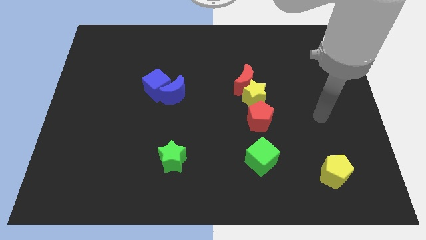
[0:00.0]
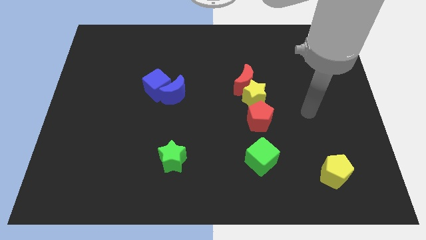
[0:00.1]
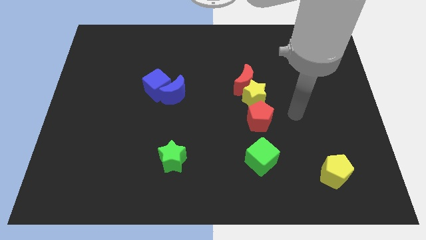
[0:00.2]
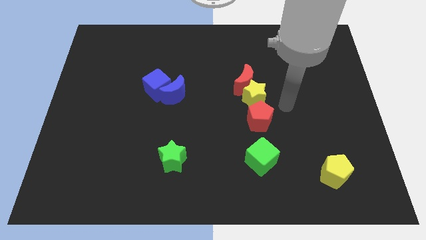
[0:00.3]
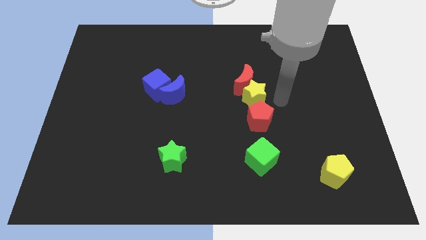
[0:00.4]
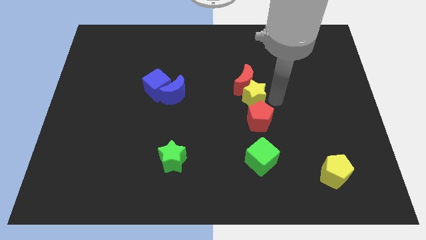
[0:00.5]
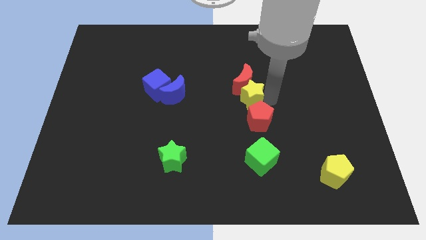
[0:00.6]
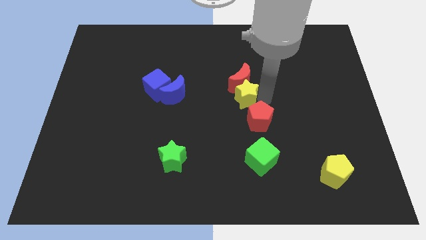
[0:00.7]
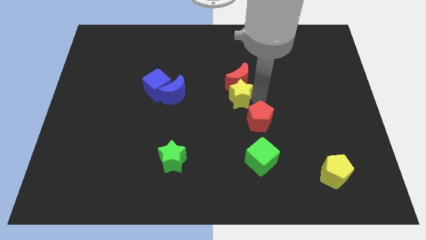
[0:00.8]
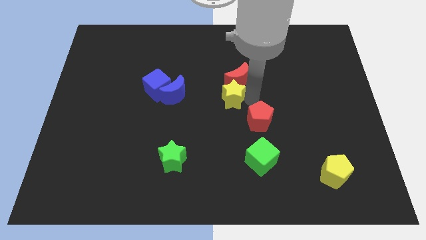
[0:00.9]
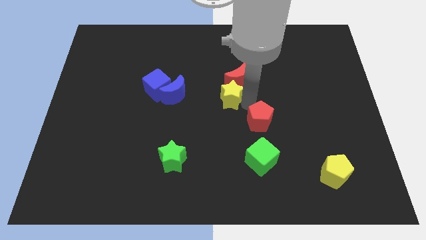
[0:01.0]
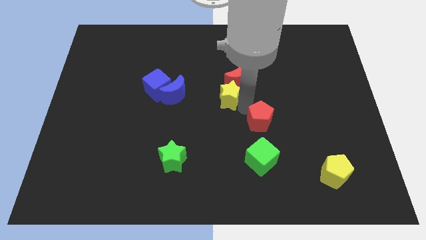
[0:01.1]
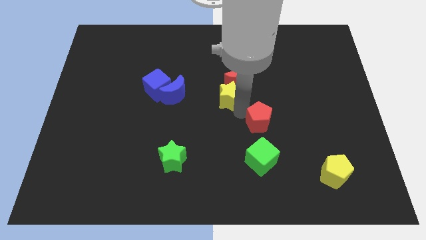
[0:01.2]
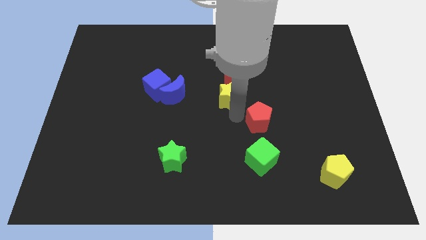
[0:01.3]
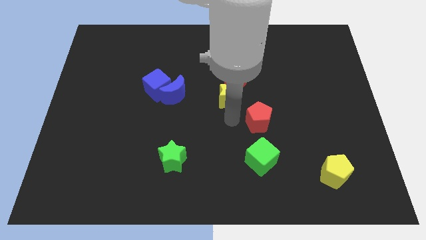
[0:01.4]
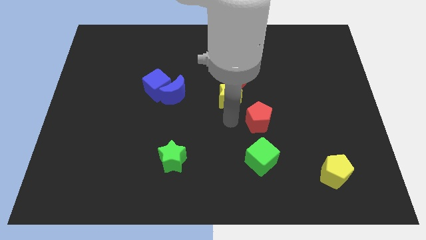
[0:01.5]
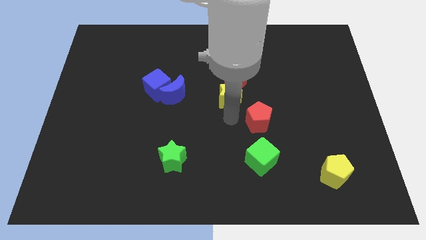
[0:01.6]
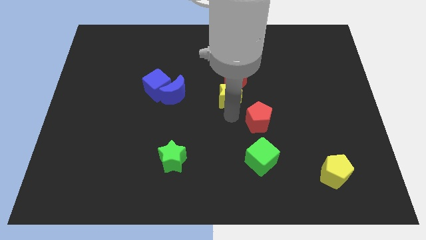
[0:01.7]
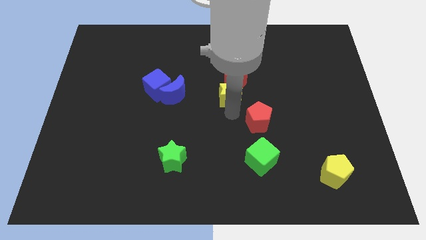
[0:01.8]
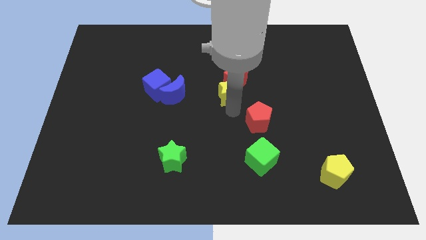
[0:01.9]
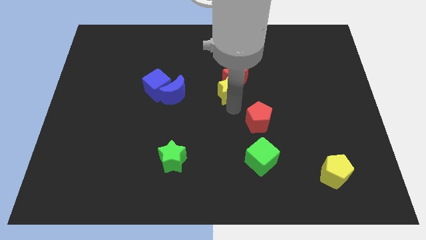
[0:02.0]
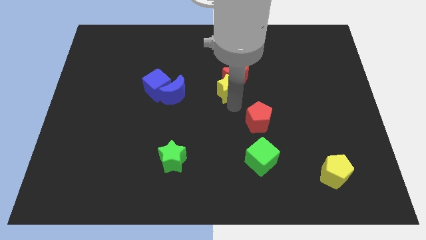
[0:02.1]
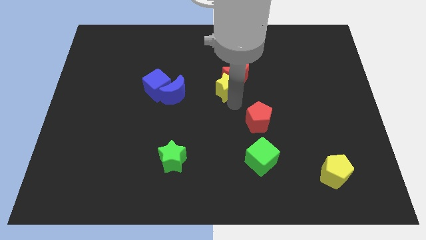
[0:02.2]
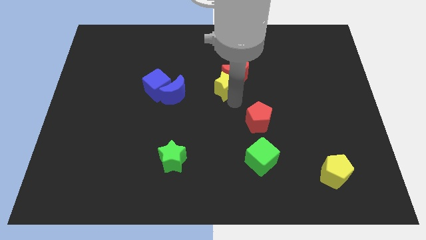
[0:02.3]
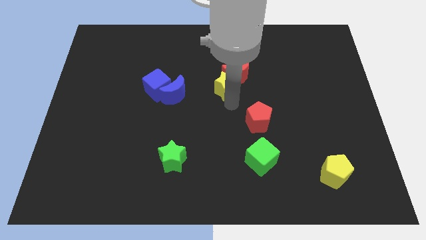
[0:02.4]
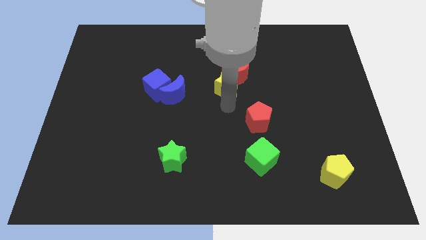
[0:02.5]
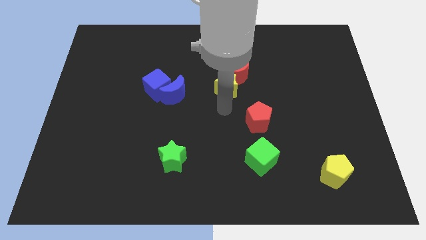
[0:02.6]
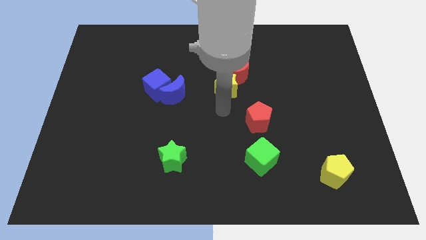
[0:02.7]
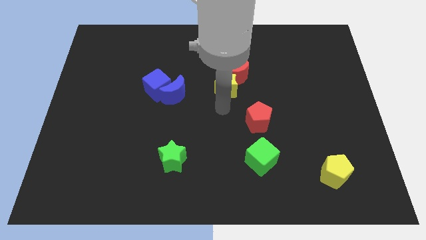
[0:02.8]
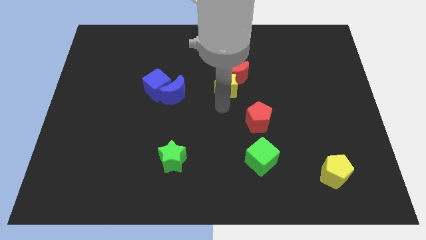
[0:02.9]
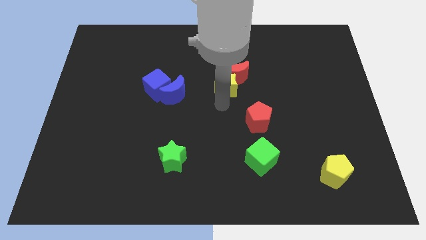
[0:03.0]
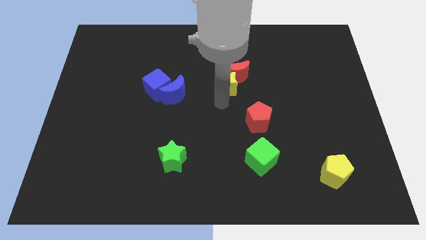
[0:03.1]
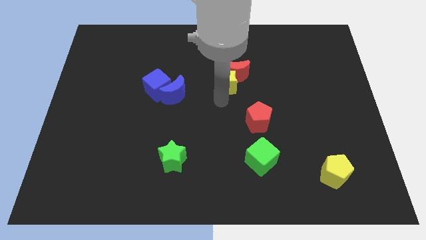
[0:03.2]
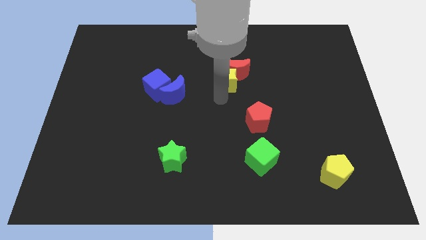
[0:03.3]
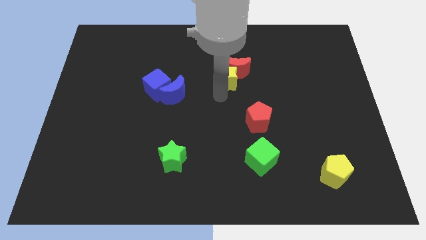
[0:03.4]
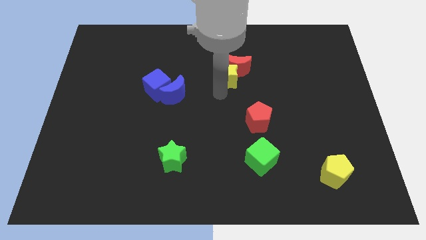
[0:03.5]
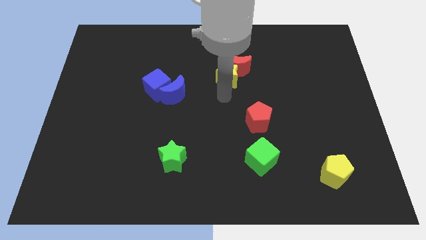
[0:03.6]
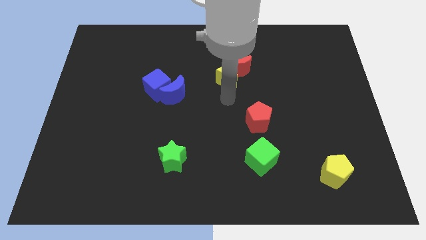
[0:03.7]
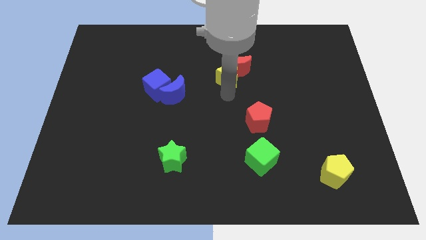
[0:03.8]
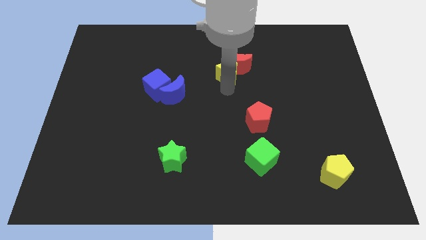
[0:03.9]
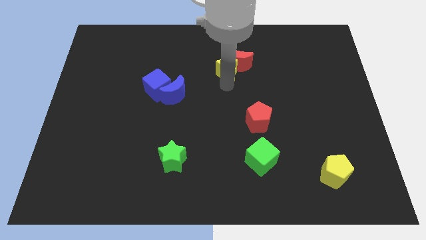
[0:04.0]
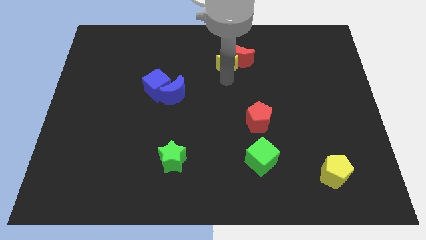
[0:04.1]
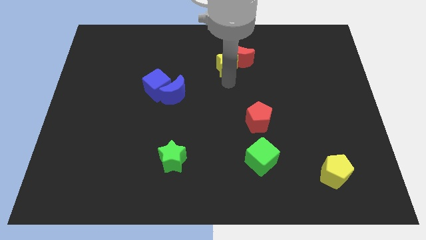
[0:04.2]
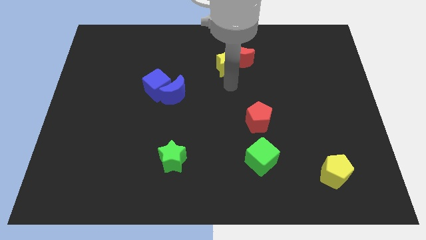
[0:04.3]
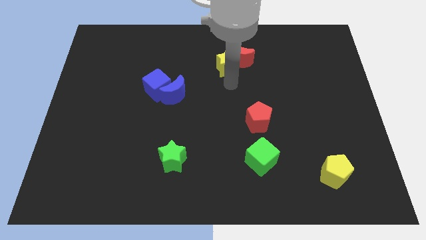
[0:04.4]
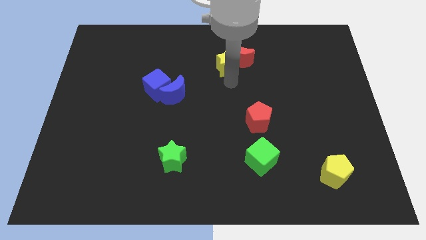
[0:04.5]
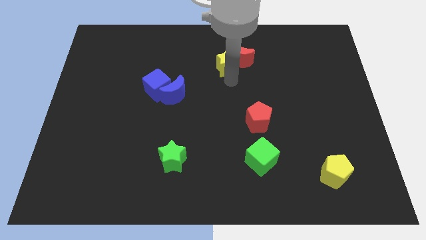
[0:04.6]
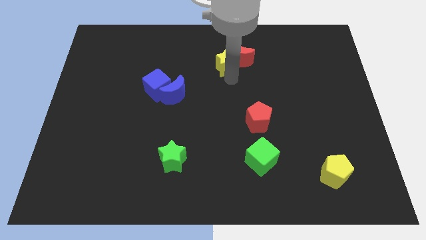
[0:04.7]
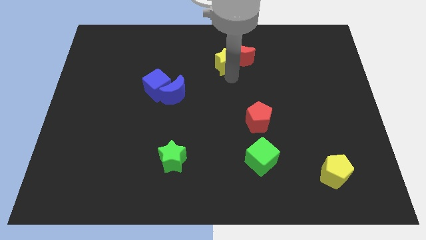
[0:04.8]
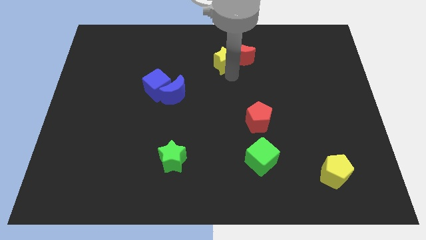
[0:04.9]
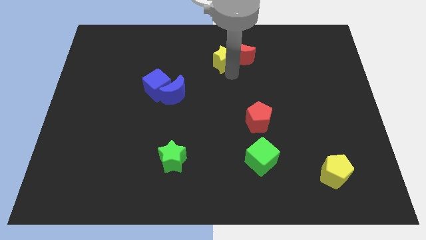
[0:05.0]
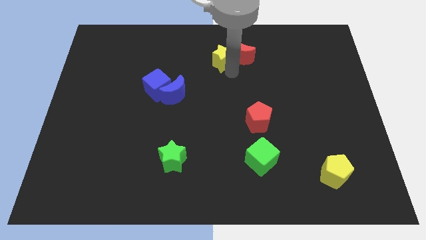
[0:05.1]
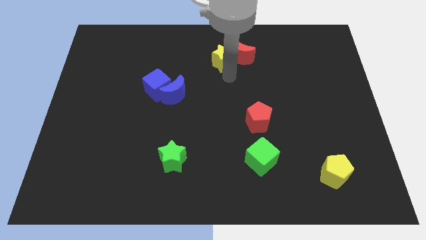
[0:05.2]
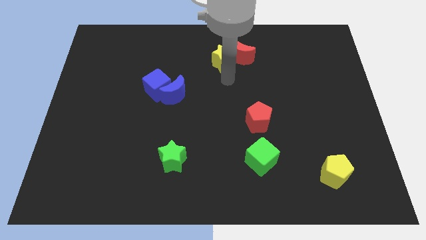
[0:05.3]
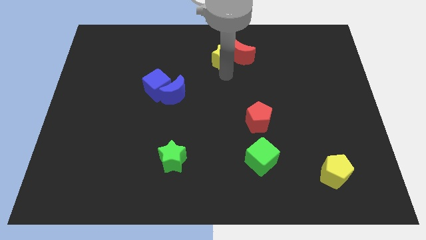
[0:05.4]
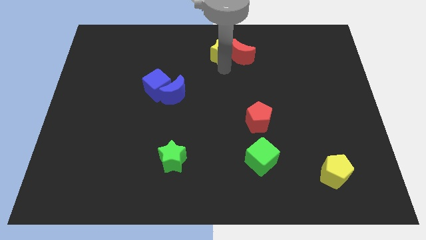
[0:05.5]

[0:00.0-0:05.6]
put the yellow star to the top

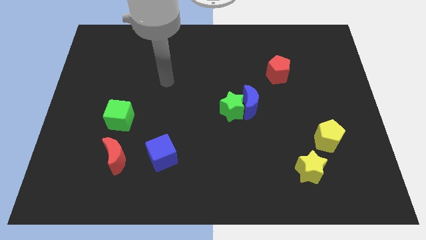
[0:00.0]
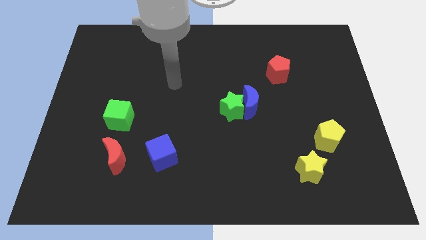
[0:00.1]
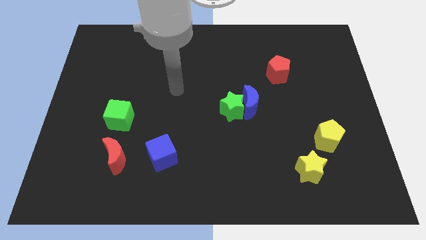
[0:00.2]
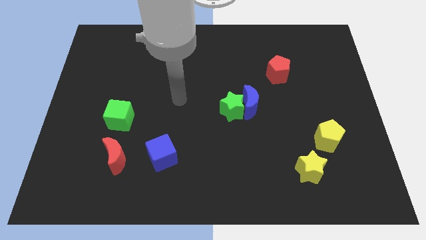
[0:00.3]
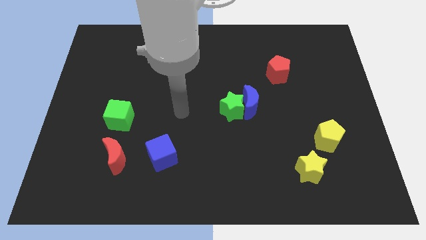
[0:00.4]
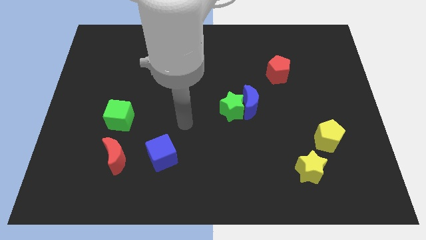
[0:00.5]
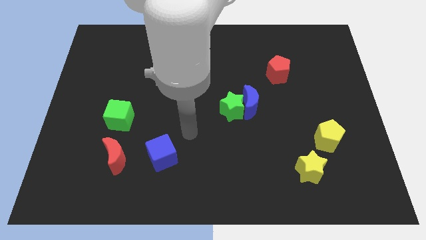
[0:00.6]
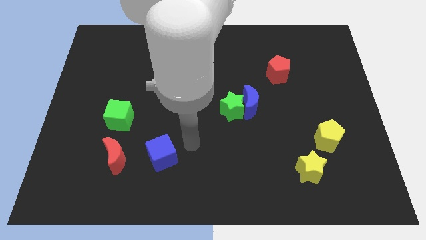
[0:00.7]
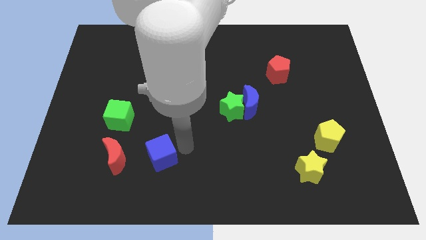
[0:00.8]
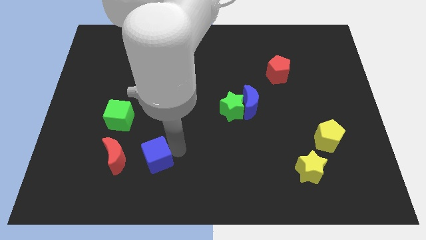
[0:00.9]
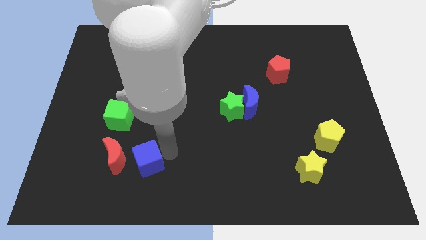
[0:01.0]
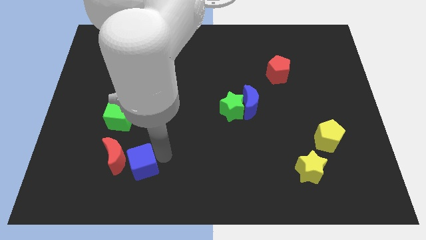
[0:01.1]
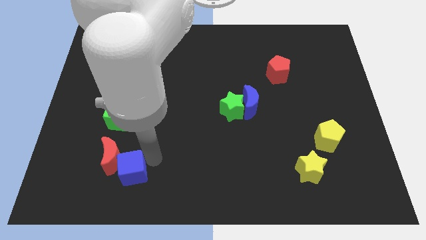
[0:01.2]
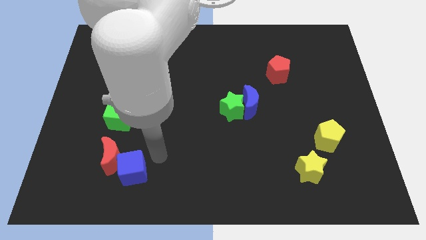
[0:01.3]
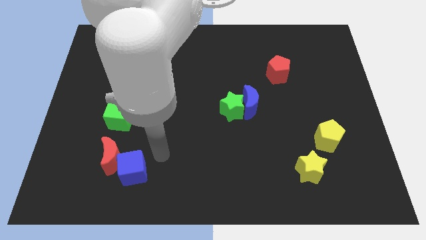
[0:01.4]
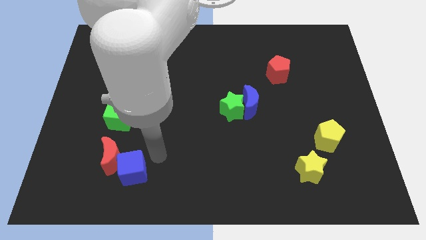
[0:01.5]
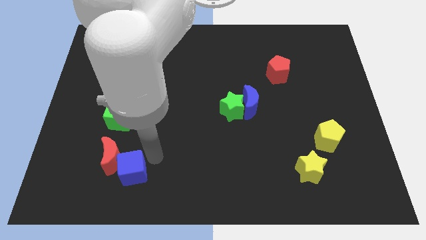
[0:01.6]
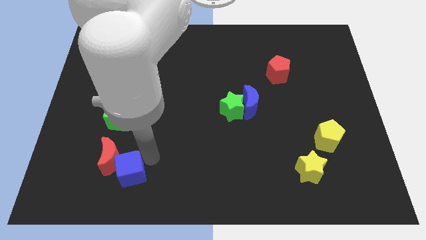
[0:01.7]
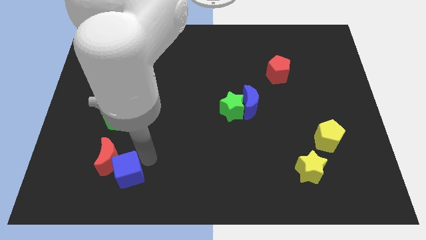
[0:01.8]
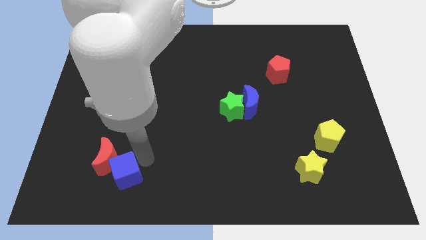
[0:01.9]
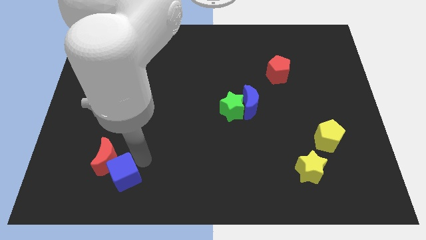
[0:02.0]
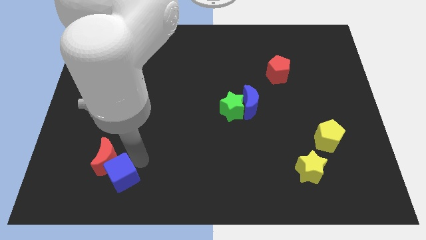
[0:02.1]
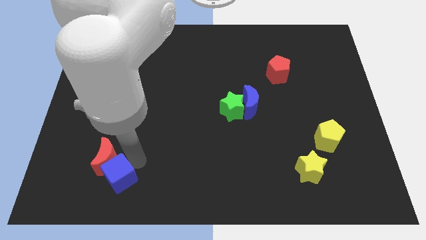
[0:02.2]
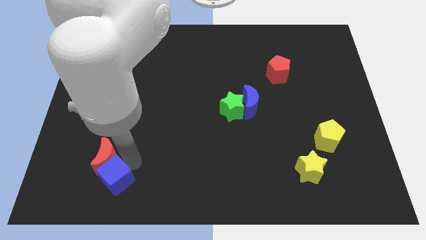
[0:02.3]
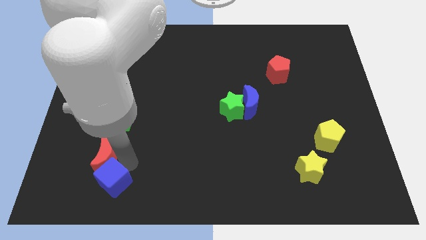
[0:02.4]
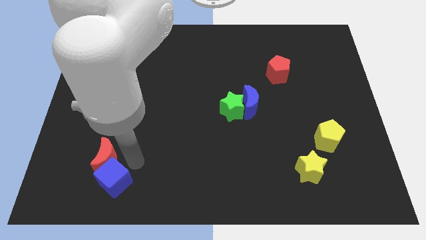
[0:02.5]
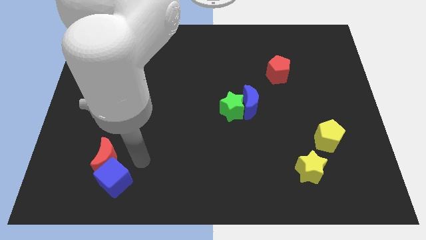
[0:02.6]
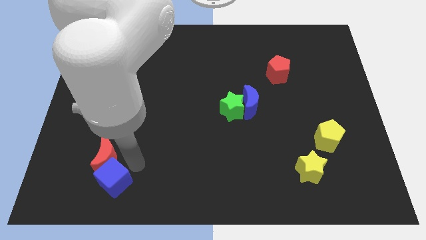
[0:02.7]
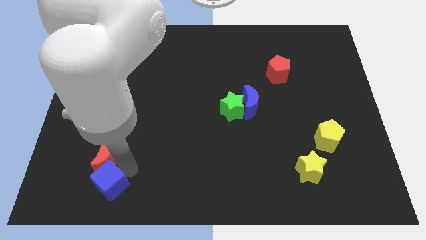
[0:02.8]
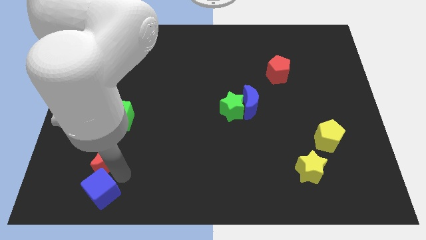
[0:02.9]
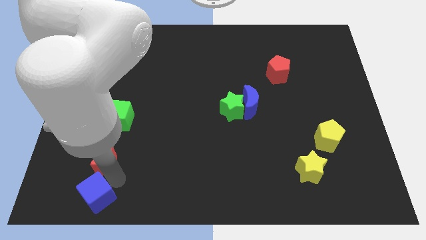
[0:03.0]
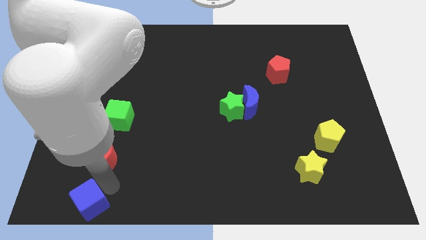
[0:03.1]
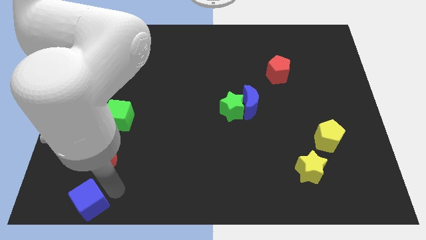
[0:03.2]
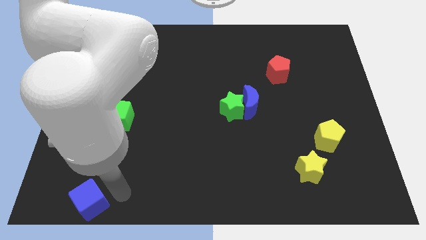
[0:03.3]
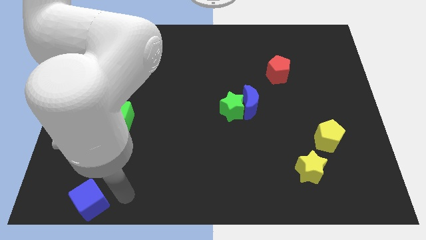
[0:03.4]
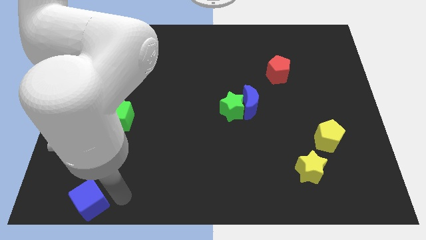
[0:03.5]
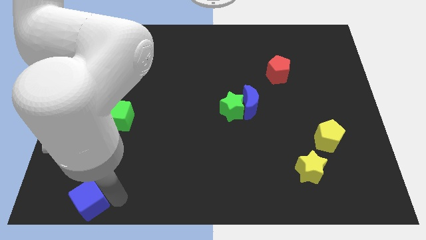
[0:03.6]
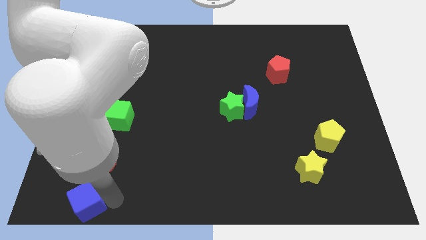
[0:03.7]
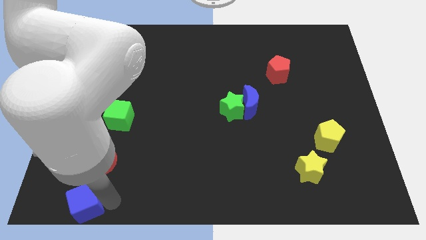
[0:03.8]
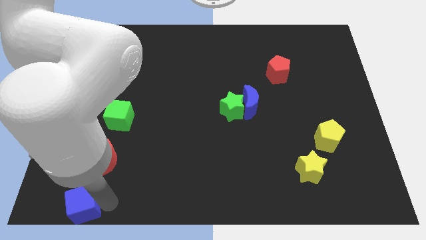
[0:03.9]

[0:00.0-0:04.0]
put the blue cube to the bottom left of the board
